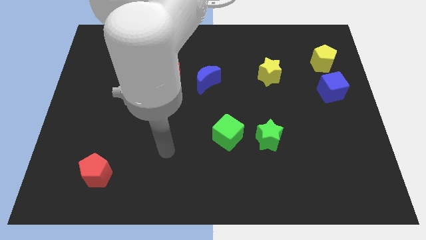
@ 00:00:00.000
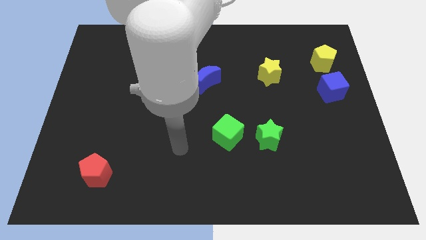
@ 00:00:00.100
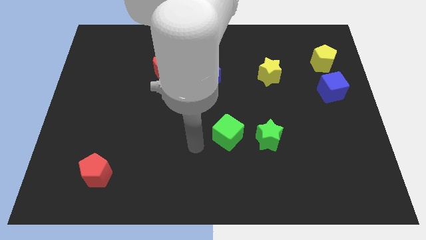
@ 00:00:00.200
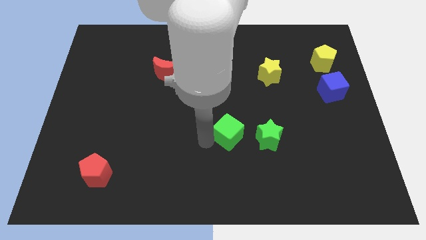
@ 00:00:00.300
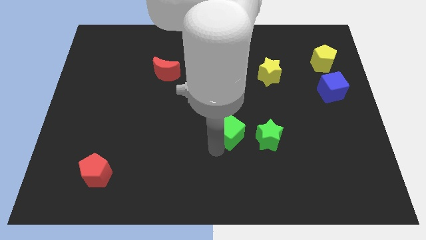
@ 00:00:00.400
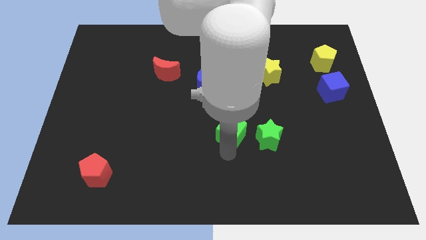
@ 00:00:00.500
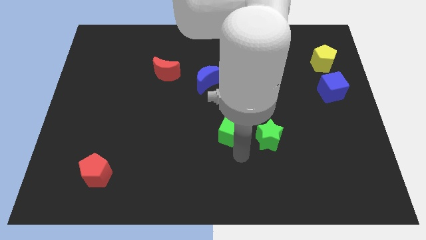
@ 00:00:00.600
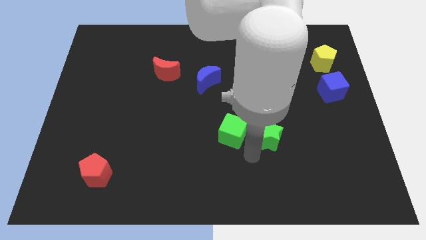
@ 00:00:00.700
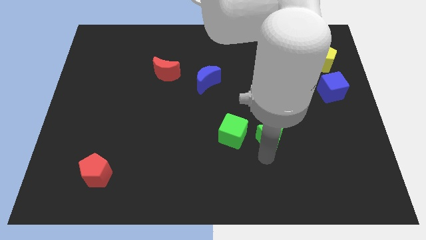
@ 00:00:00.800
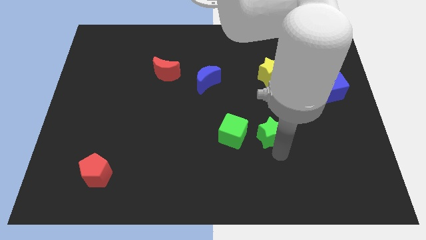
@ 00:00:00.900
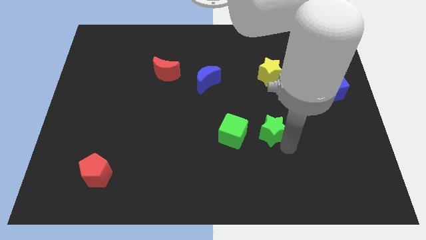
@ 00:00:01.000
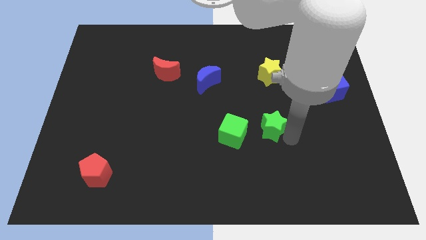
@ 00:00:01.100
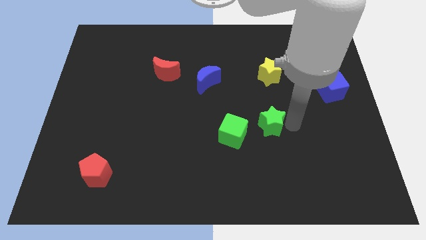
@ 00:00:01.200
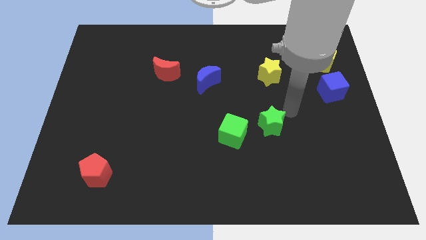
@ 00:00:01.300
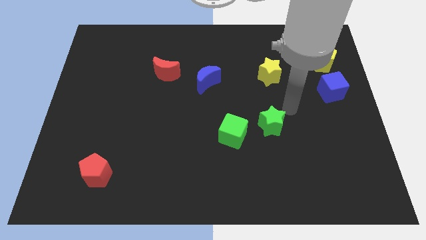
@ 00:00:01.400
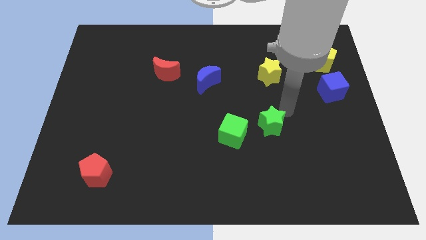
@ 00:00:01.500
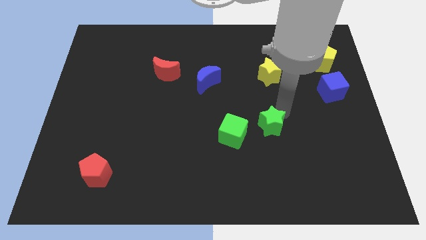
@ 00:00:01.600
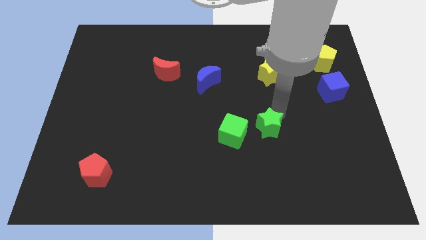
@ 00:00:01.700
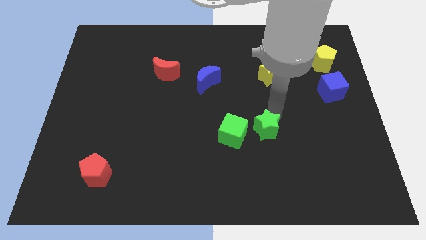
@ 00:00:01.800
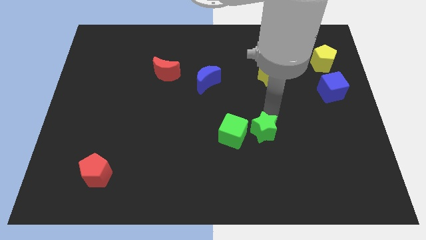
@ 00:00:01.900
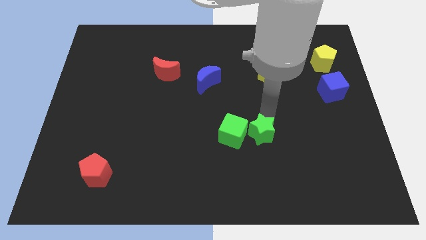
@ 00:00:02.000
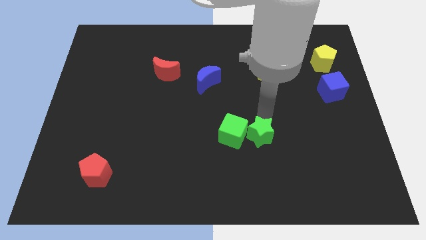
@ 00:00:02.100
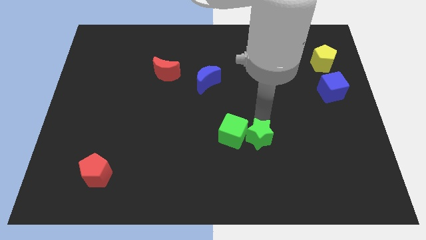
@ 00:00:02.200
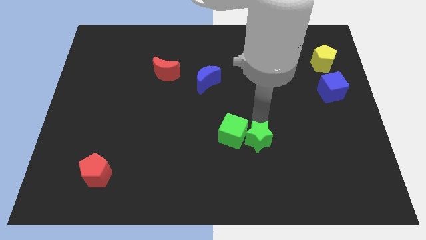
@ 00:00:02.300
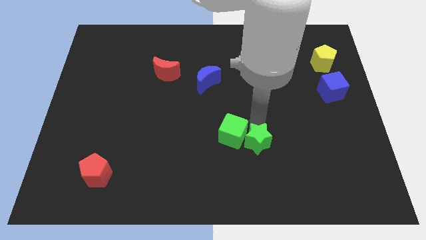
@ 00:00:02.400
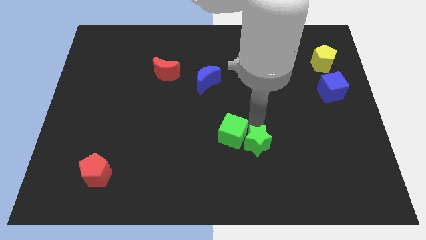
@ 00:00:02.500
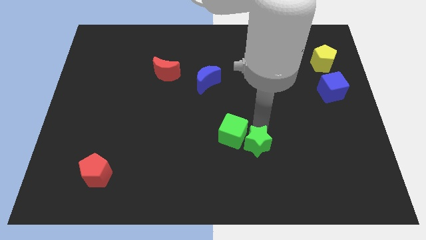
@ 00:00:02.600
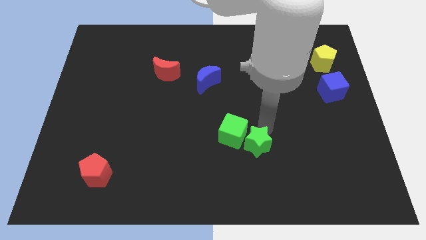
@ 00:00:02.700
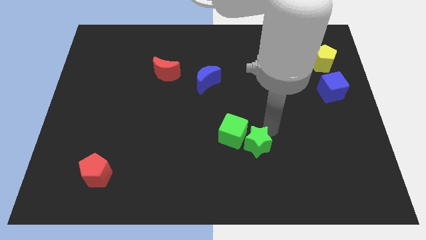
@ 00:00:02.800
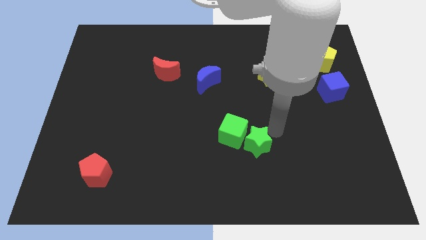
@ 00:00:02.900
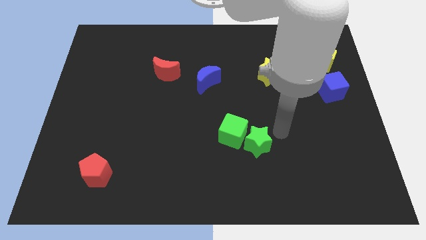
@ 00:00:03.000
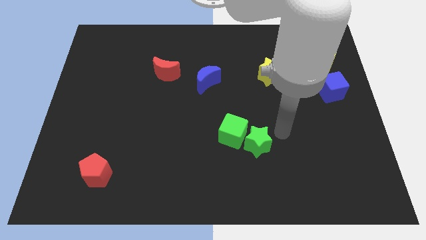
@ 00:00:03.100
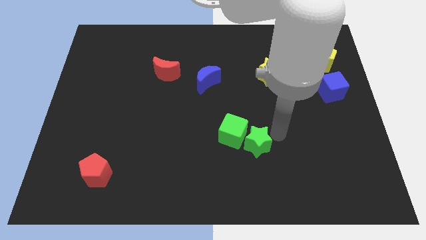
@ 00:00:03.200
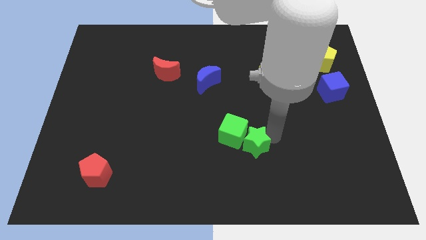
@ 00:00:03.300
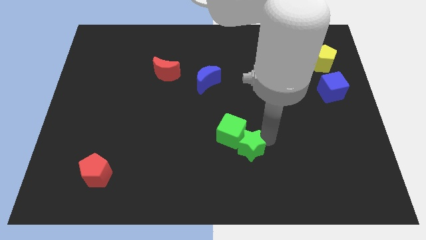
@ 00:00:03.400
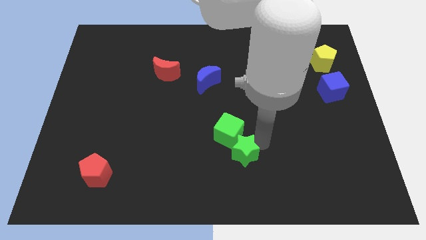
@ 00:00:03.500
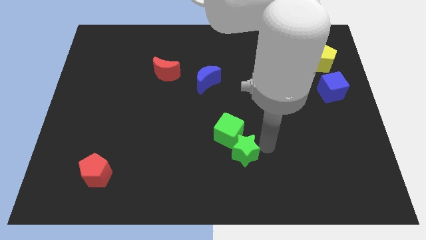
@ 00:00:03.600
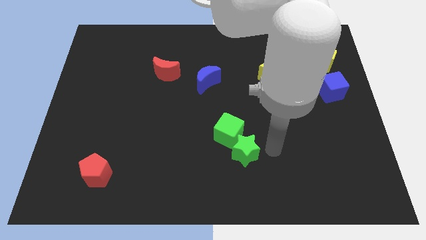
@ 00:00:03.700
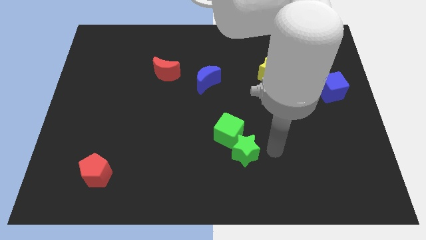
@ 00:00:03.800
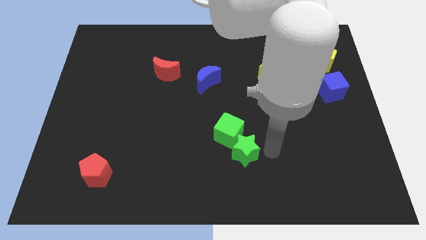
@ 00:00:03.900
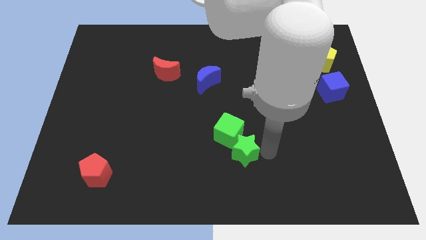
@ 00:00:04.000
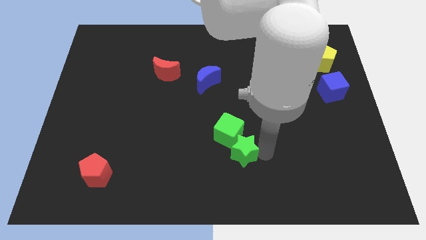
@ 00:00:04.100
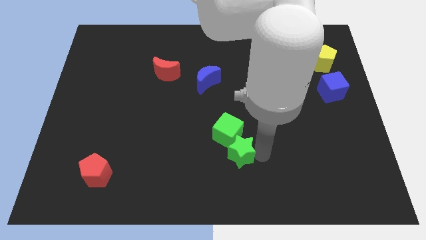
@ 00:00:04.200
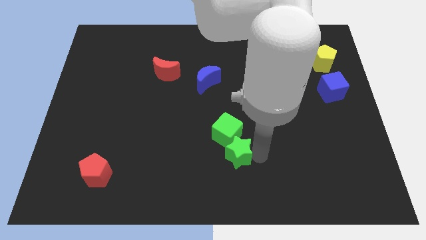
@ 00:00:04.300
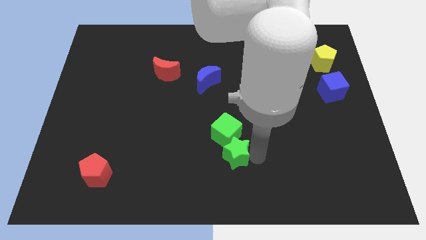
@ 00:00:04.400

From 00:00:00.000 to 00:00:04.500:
slightly move the green star left

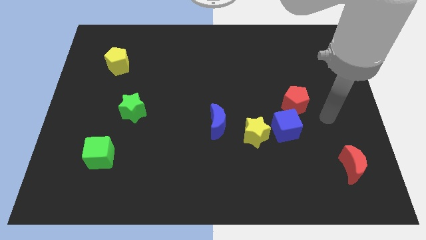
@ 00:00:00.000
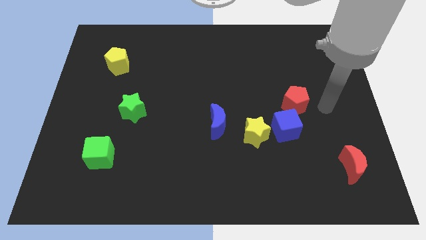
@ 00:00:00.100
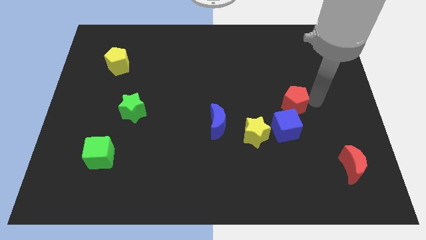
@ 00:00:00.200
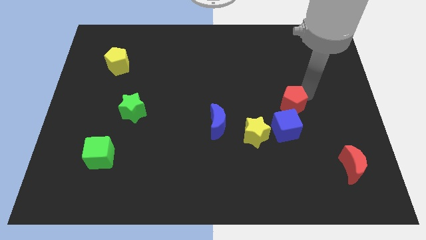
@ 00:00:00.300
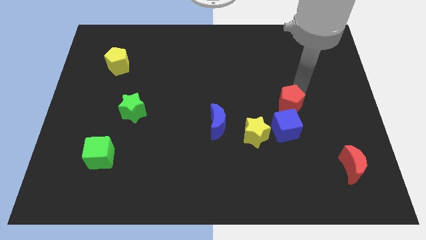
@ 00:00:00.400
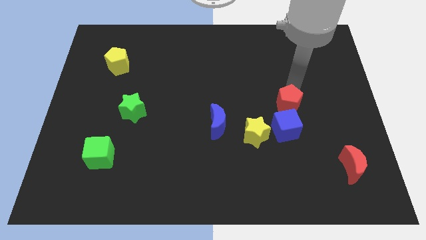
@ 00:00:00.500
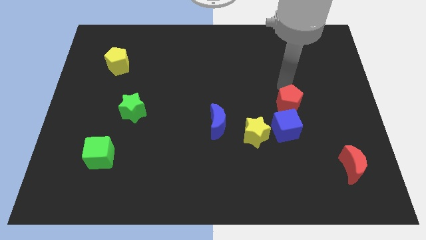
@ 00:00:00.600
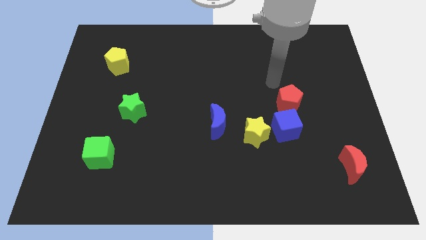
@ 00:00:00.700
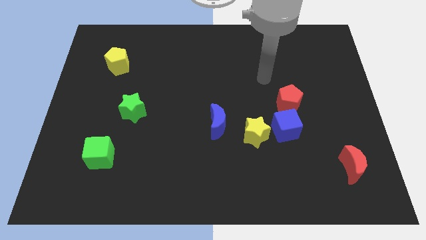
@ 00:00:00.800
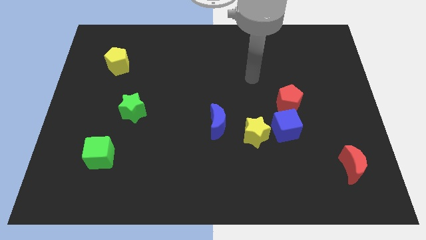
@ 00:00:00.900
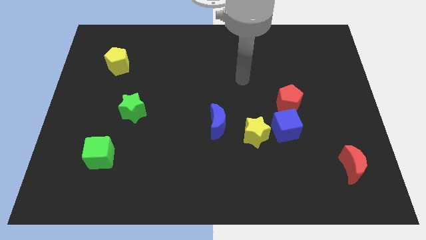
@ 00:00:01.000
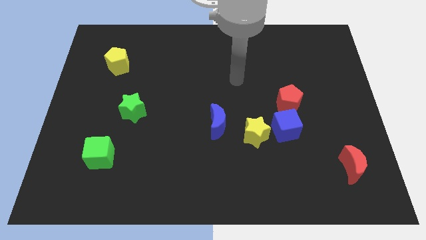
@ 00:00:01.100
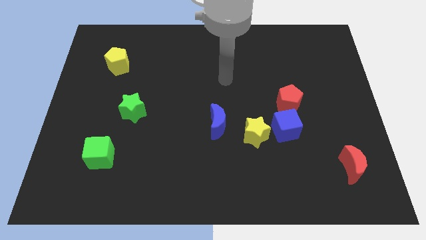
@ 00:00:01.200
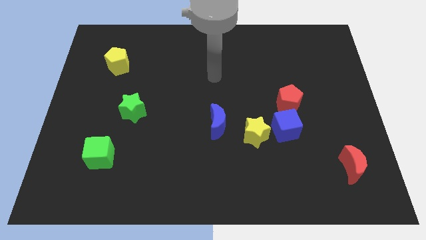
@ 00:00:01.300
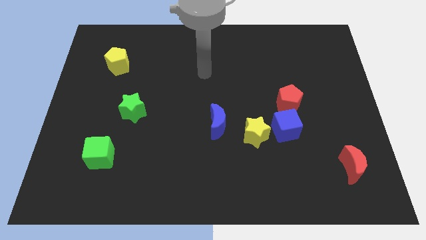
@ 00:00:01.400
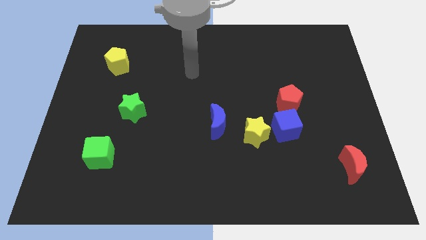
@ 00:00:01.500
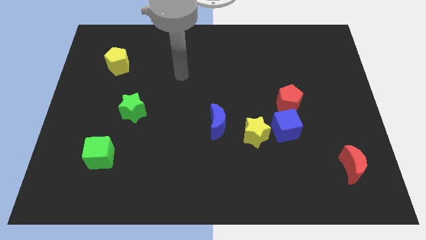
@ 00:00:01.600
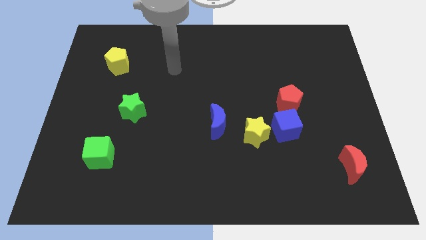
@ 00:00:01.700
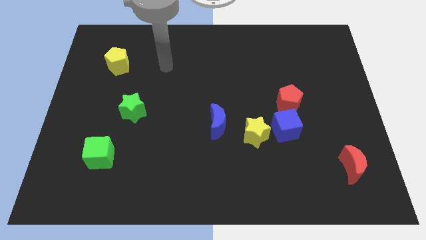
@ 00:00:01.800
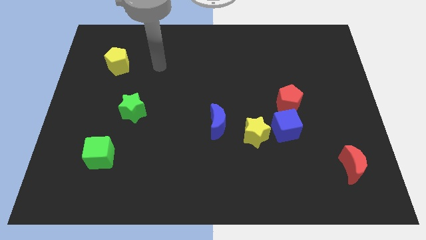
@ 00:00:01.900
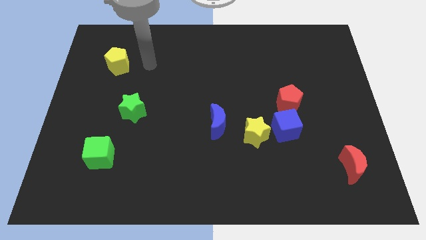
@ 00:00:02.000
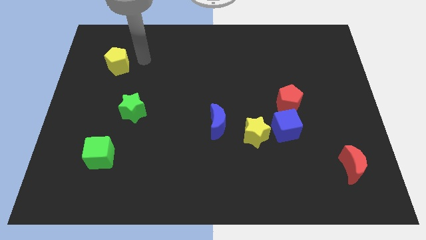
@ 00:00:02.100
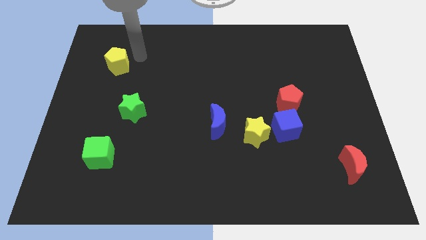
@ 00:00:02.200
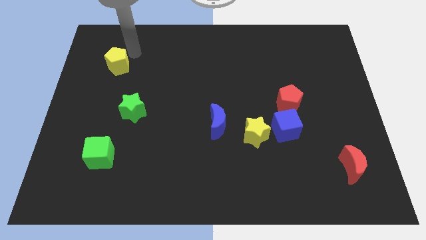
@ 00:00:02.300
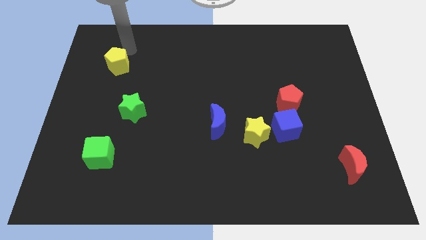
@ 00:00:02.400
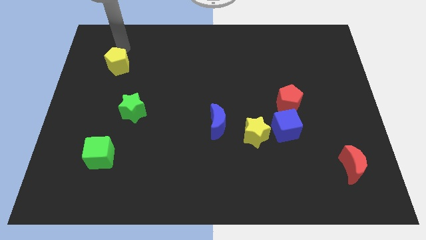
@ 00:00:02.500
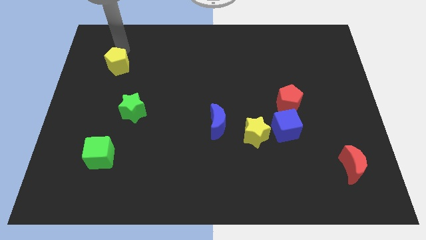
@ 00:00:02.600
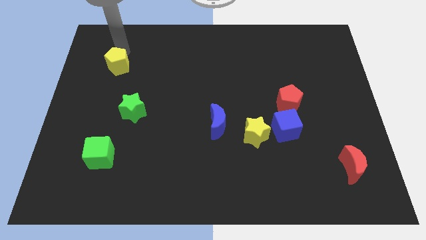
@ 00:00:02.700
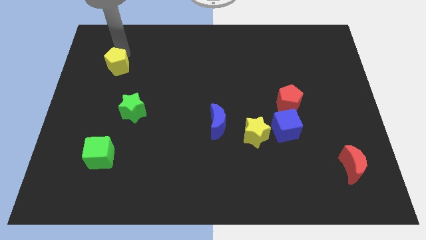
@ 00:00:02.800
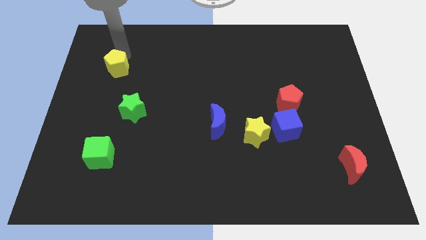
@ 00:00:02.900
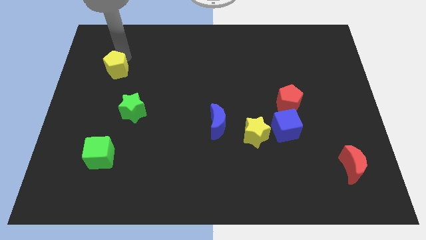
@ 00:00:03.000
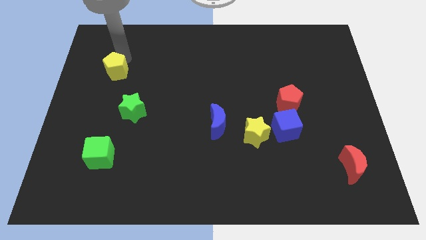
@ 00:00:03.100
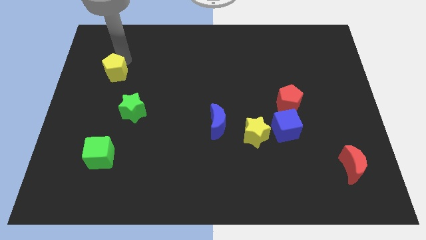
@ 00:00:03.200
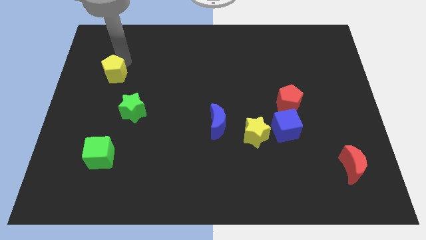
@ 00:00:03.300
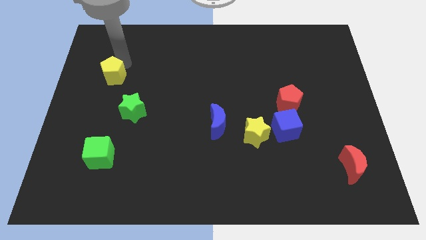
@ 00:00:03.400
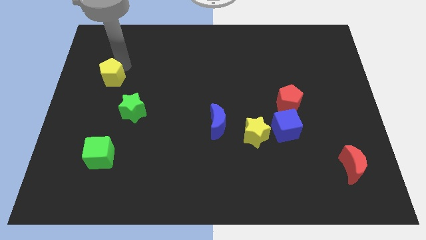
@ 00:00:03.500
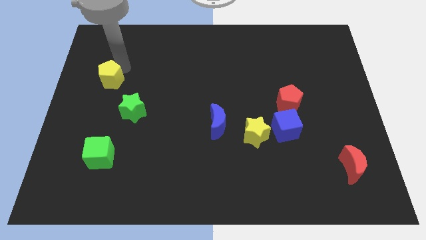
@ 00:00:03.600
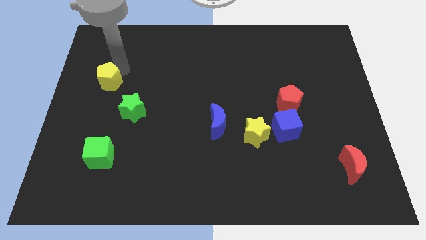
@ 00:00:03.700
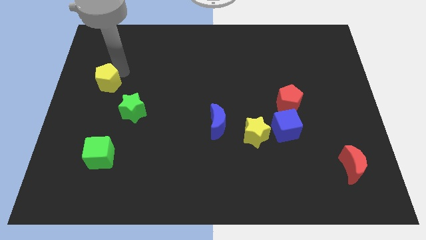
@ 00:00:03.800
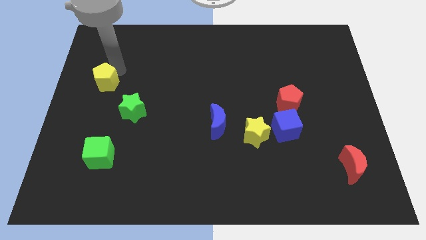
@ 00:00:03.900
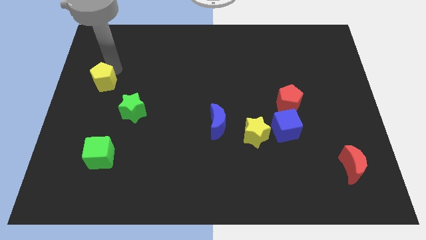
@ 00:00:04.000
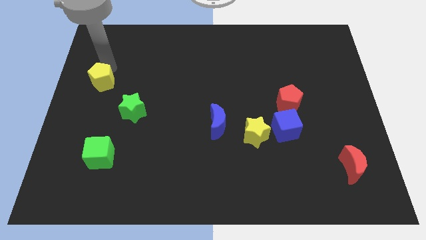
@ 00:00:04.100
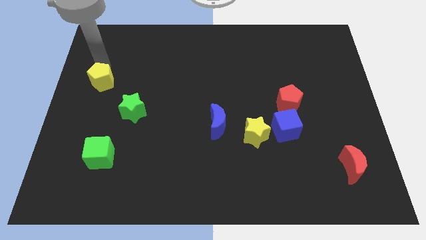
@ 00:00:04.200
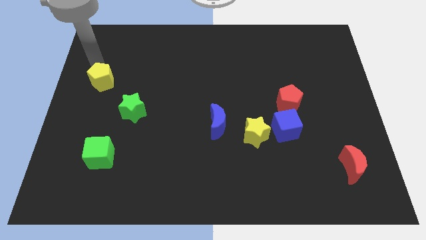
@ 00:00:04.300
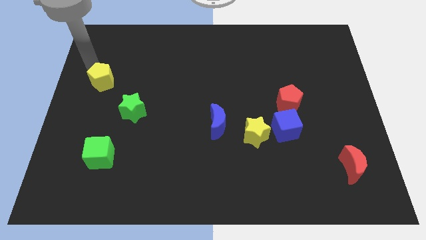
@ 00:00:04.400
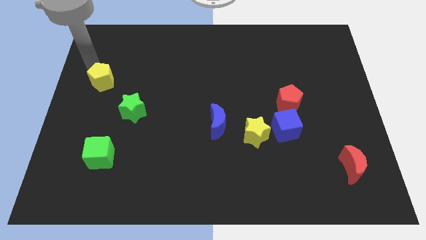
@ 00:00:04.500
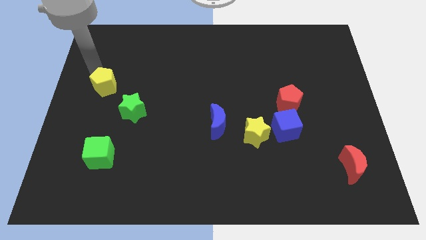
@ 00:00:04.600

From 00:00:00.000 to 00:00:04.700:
move the yellow pentagon somewhat downwards
